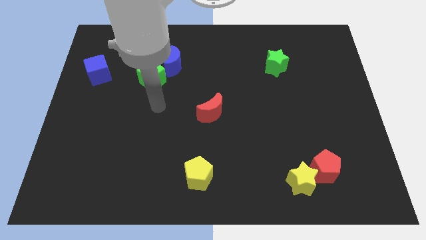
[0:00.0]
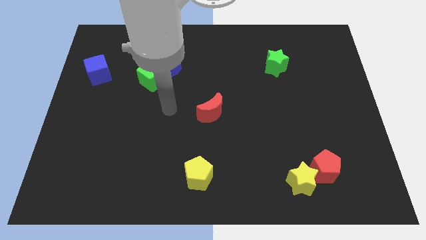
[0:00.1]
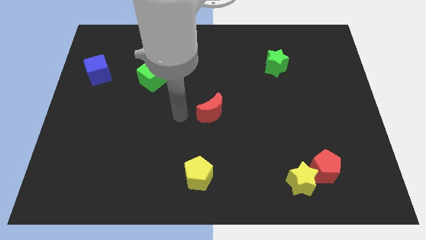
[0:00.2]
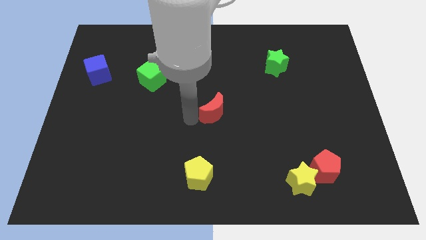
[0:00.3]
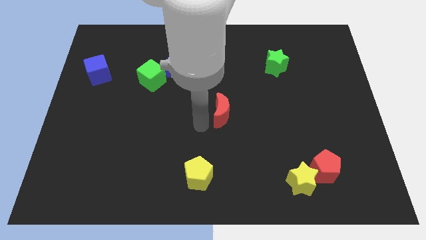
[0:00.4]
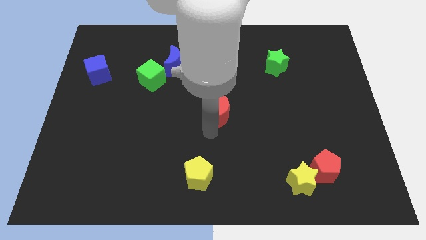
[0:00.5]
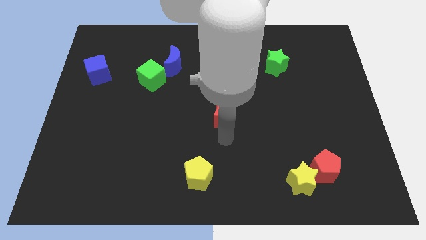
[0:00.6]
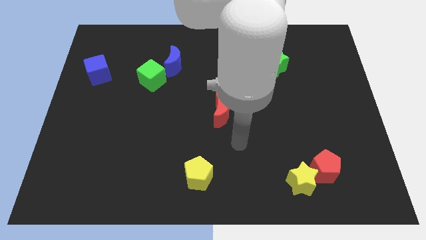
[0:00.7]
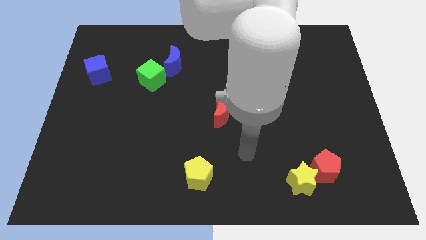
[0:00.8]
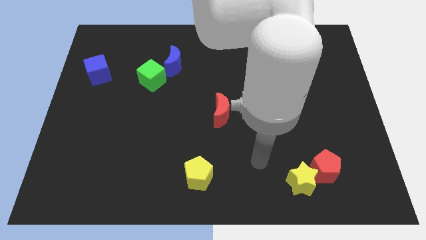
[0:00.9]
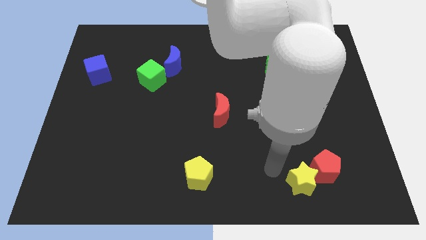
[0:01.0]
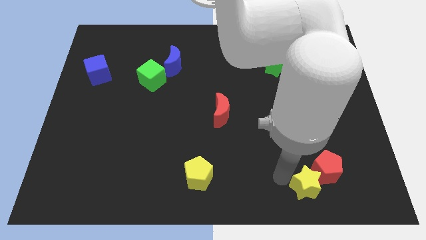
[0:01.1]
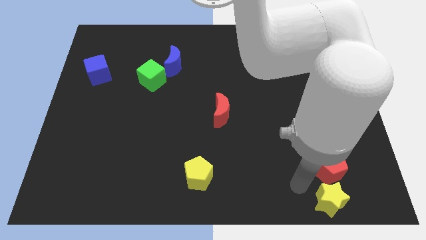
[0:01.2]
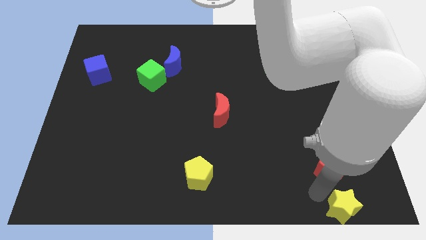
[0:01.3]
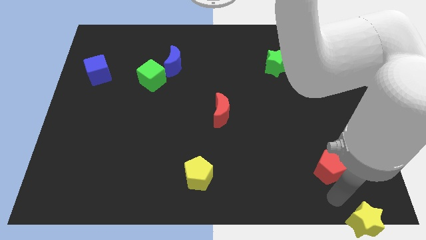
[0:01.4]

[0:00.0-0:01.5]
pull the red pentagon apart from the yellow star
